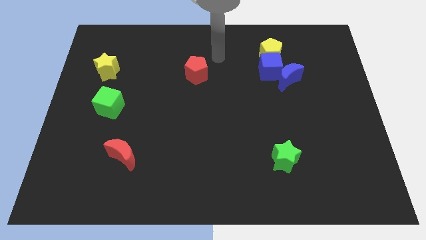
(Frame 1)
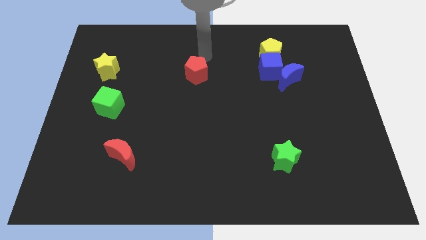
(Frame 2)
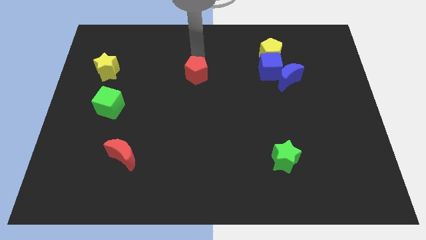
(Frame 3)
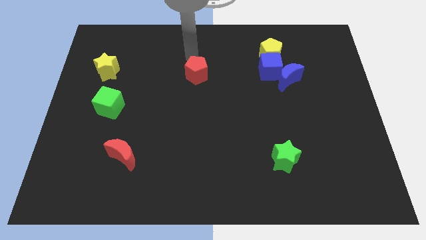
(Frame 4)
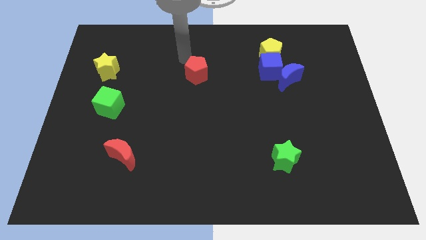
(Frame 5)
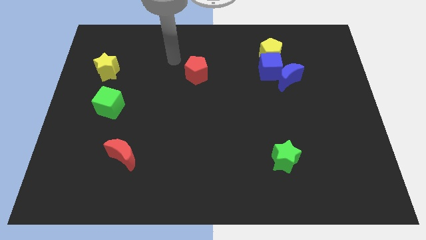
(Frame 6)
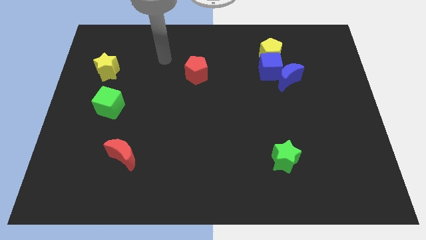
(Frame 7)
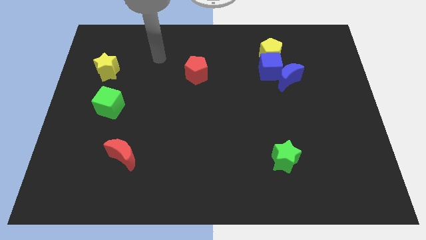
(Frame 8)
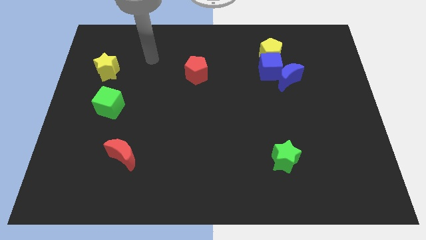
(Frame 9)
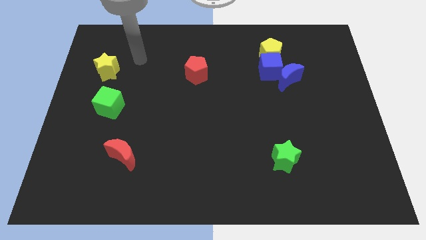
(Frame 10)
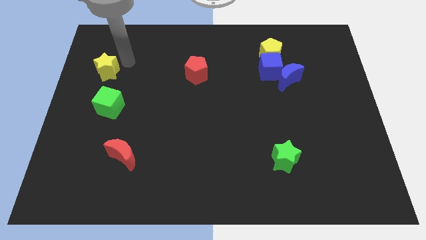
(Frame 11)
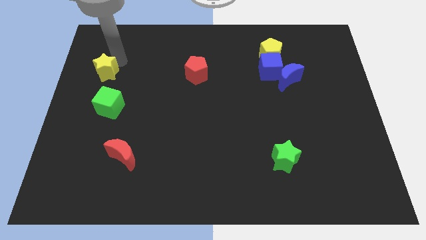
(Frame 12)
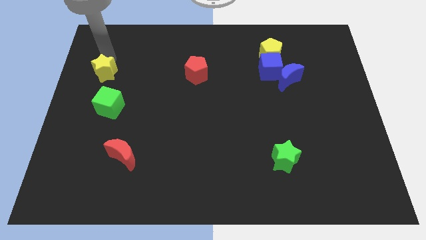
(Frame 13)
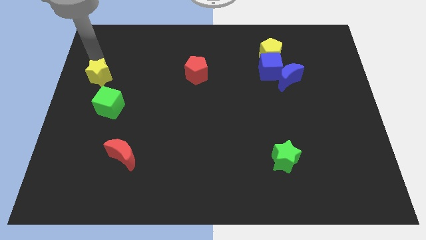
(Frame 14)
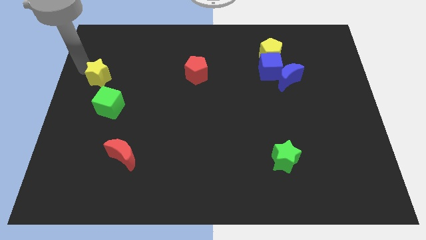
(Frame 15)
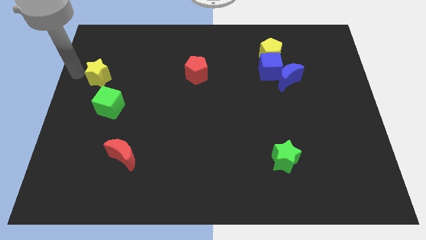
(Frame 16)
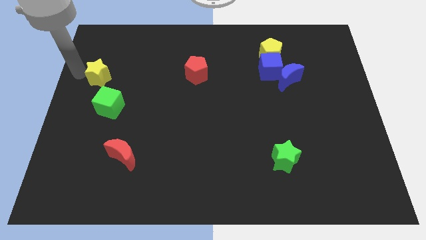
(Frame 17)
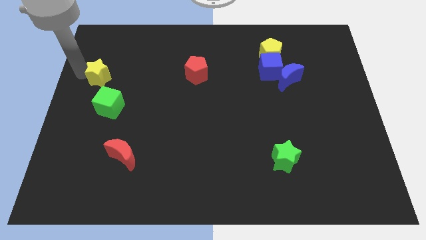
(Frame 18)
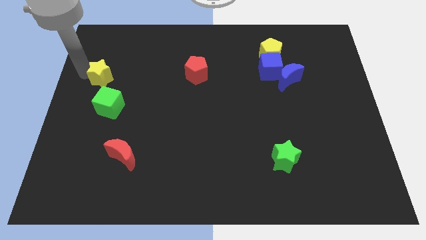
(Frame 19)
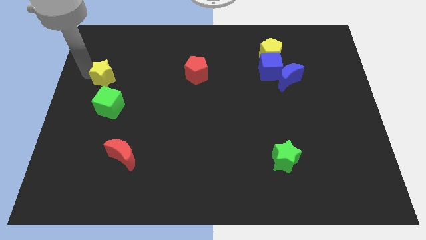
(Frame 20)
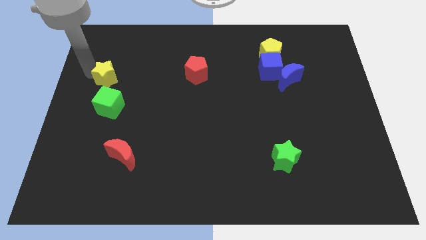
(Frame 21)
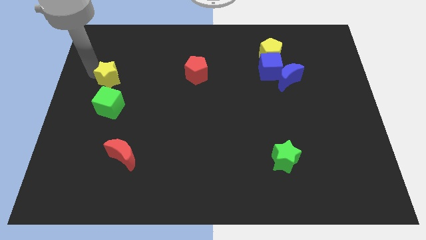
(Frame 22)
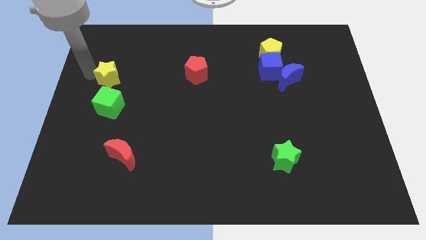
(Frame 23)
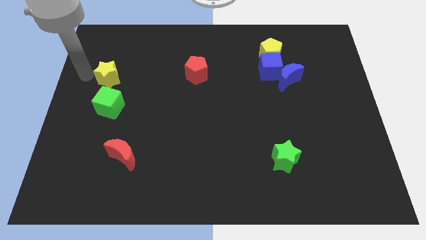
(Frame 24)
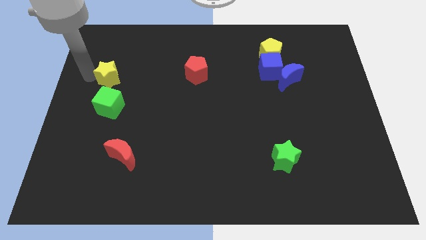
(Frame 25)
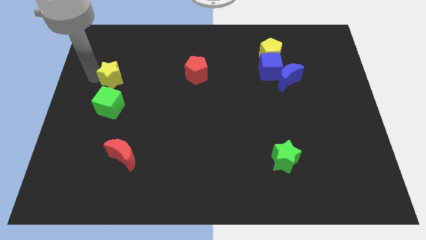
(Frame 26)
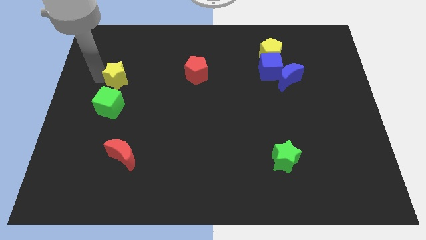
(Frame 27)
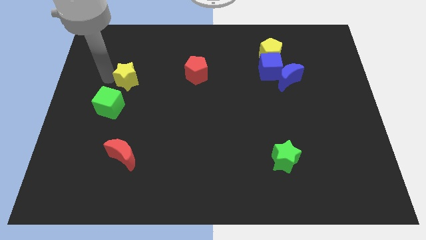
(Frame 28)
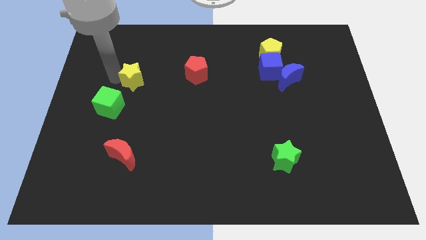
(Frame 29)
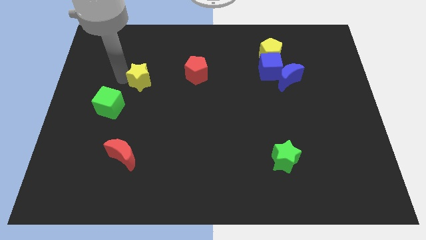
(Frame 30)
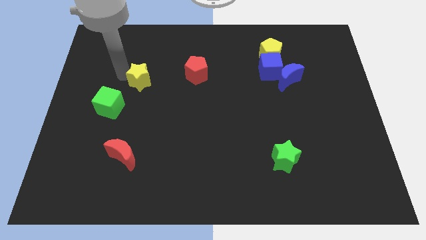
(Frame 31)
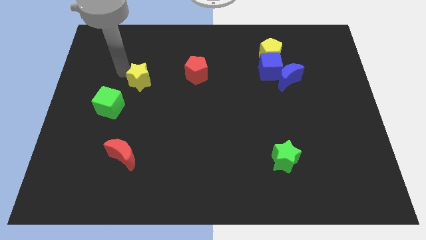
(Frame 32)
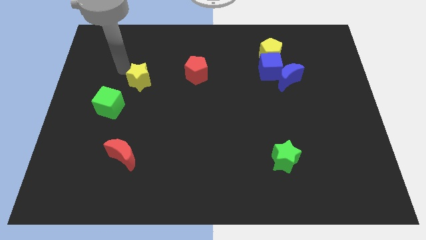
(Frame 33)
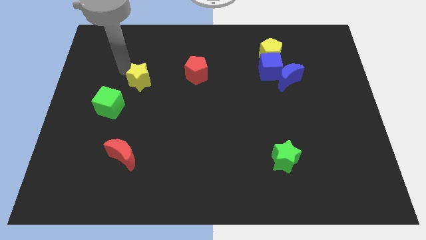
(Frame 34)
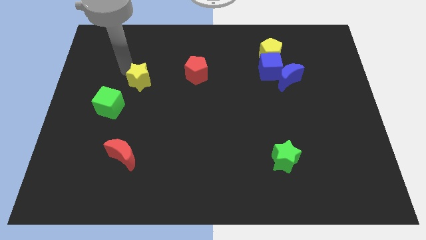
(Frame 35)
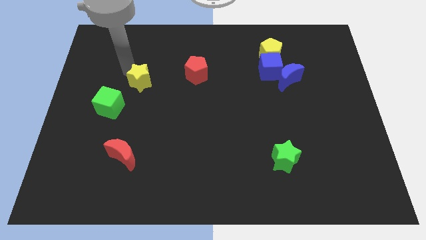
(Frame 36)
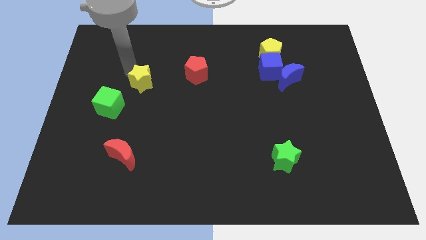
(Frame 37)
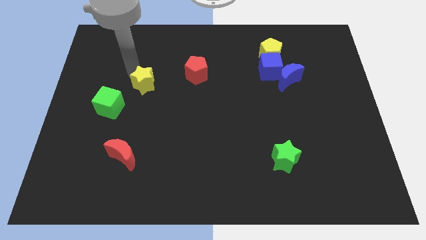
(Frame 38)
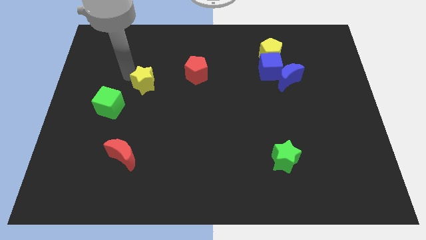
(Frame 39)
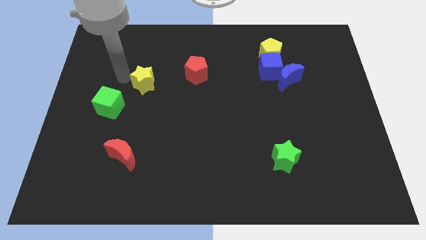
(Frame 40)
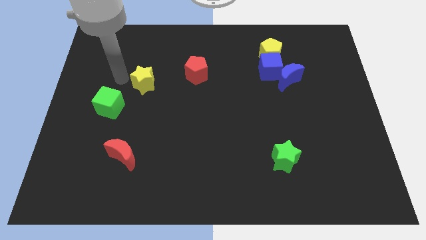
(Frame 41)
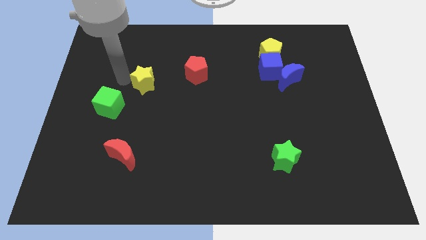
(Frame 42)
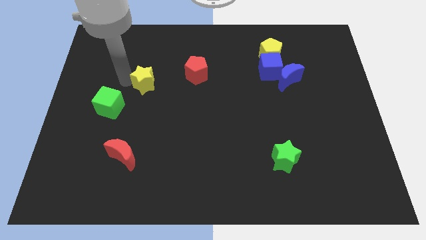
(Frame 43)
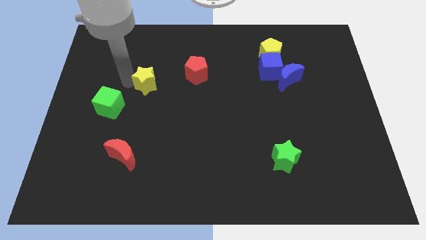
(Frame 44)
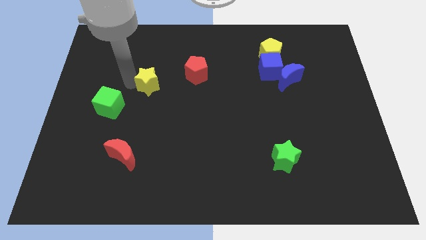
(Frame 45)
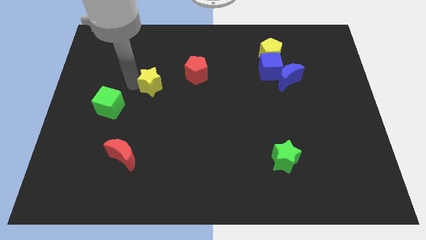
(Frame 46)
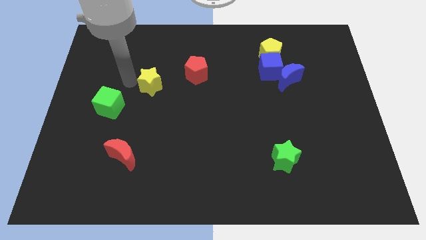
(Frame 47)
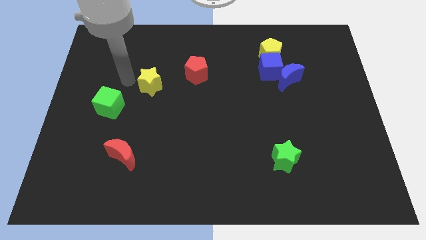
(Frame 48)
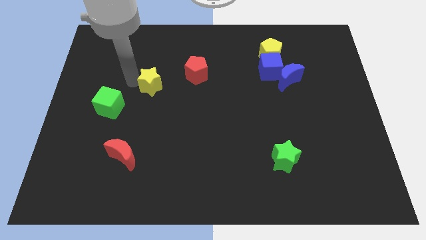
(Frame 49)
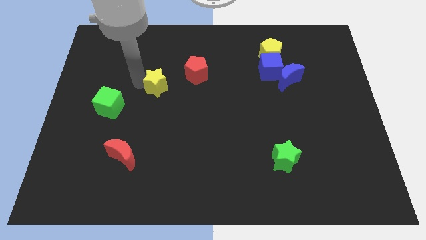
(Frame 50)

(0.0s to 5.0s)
put the yellow star diagonally down and to the left of the red pentagon

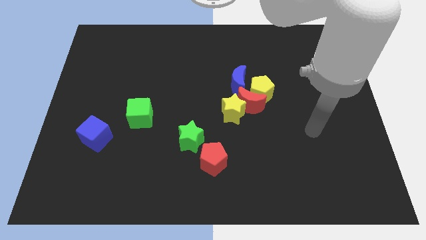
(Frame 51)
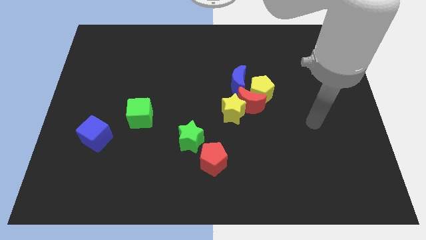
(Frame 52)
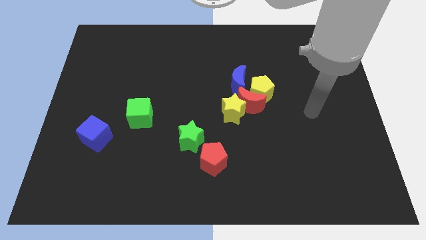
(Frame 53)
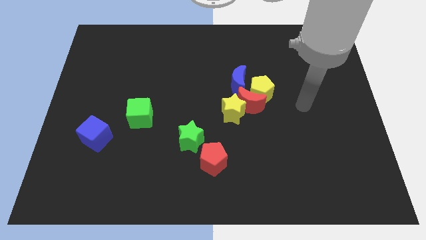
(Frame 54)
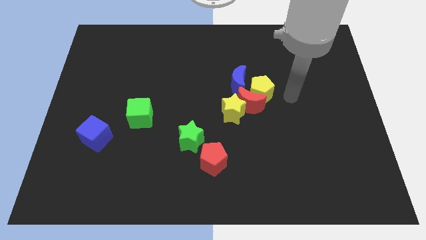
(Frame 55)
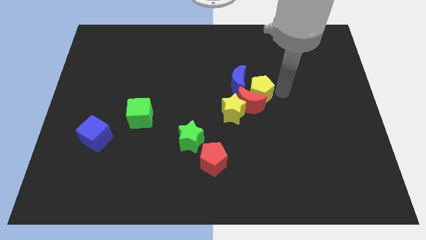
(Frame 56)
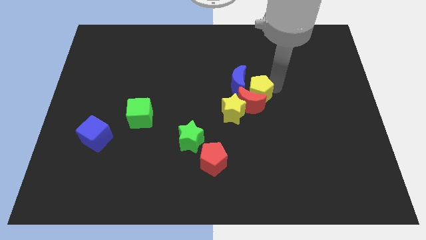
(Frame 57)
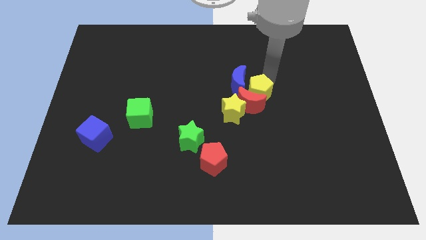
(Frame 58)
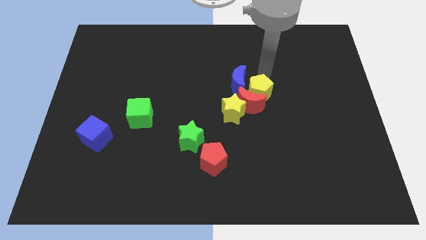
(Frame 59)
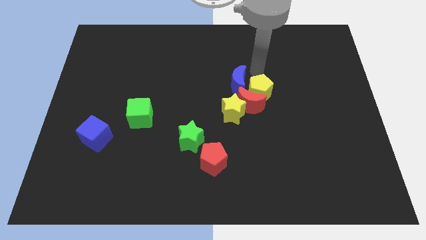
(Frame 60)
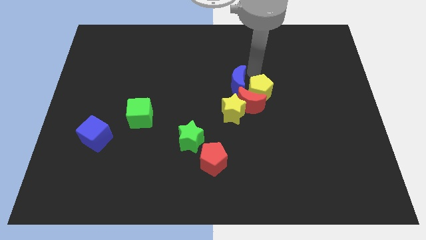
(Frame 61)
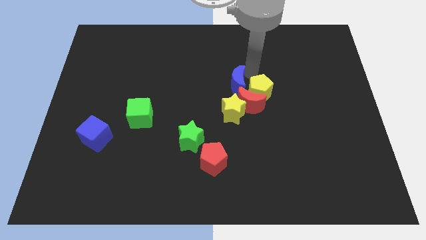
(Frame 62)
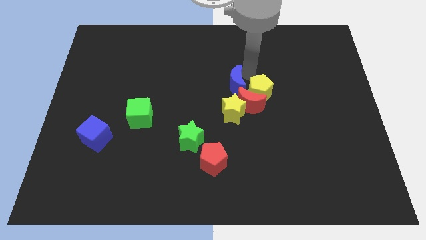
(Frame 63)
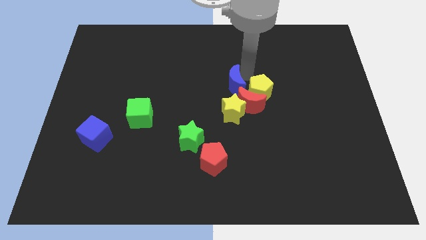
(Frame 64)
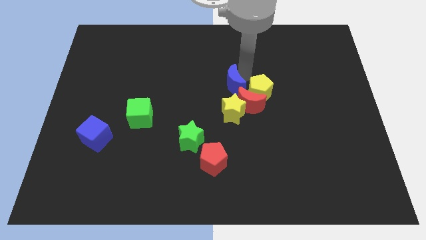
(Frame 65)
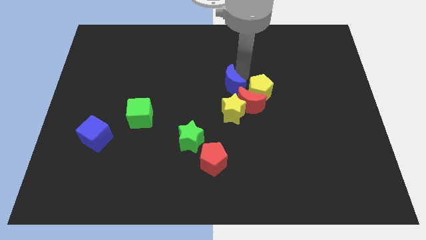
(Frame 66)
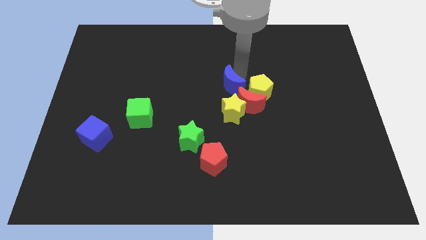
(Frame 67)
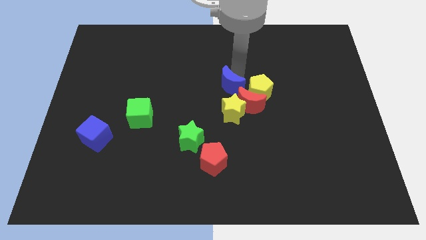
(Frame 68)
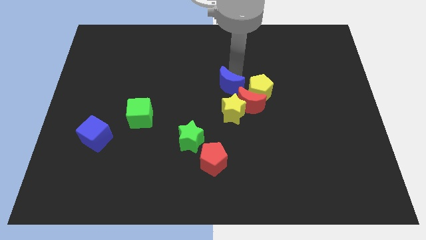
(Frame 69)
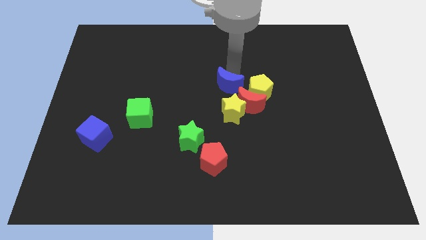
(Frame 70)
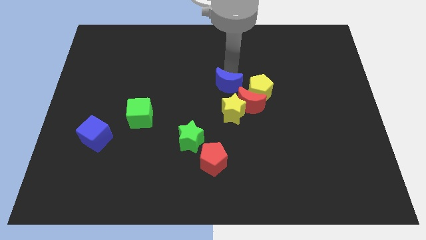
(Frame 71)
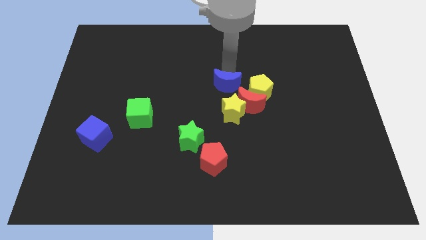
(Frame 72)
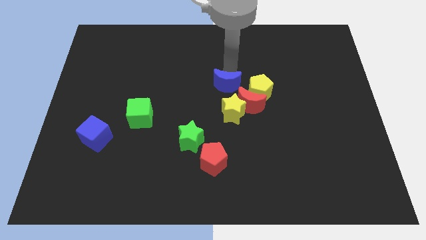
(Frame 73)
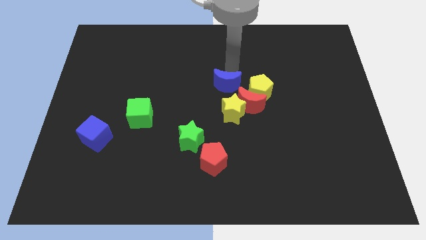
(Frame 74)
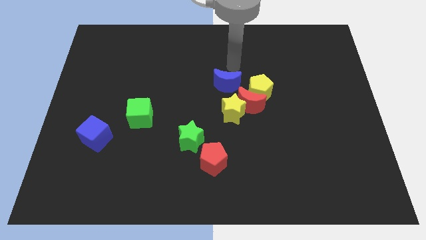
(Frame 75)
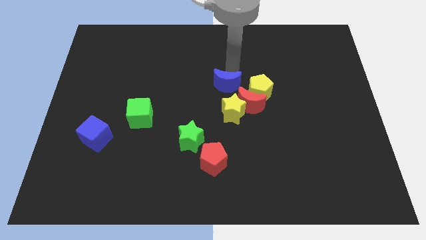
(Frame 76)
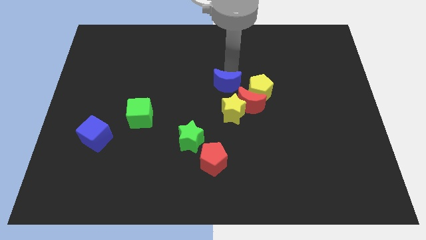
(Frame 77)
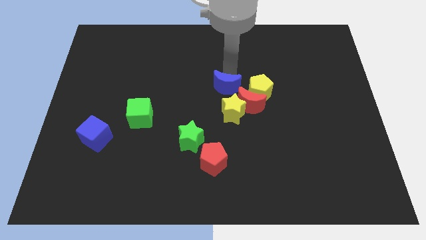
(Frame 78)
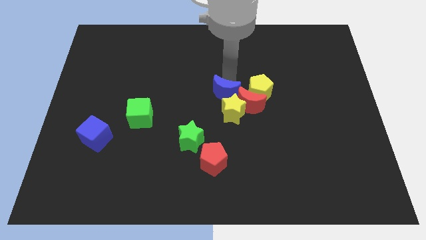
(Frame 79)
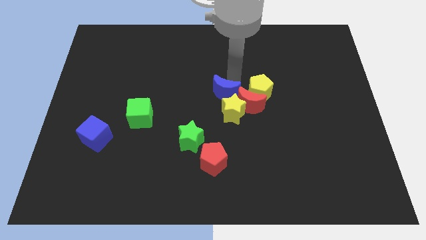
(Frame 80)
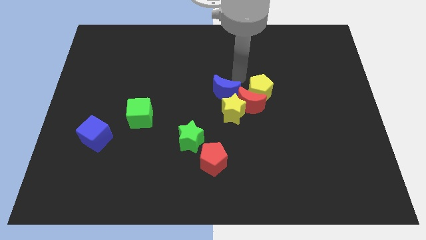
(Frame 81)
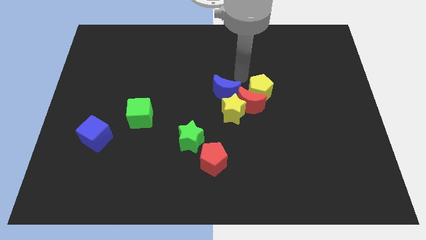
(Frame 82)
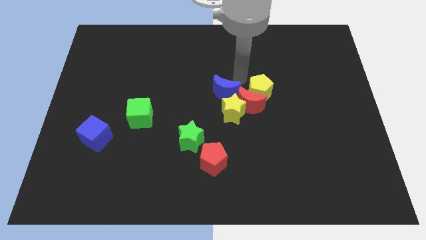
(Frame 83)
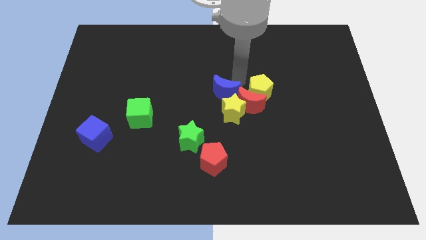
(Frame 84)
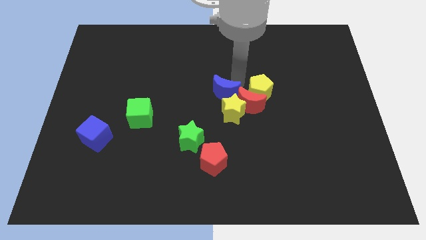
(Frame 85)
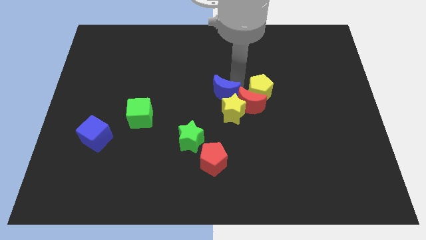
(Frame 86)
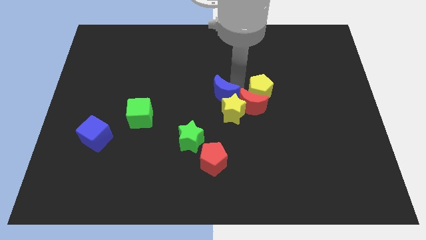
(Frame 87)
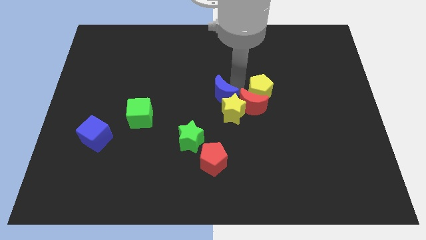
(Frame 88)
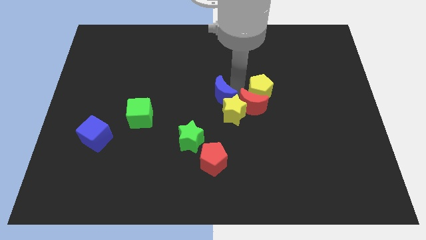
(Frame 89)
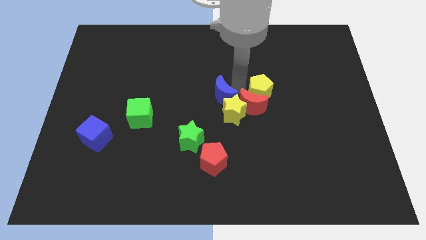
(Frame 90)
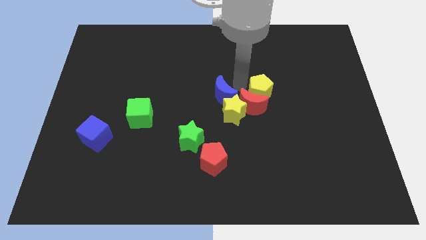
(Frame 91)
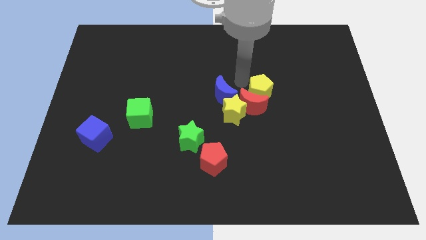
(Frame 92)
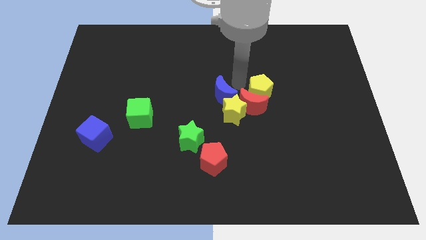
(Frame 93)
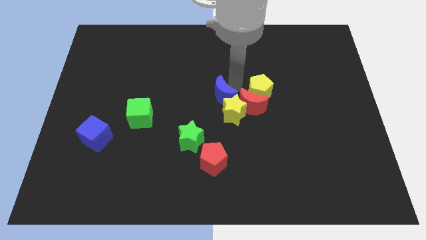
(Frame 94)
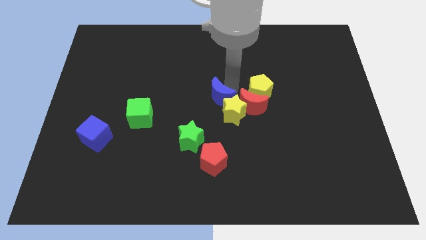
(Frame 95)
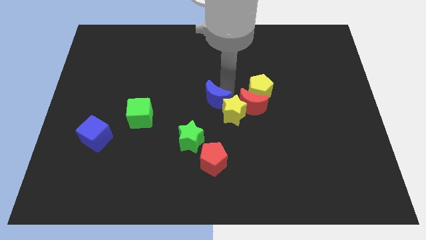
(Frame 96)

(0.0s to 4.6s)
push the blue moon to the left of the yellow star
